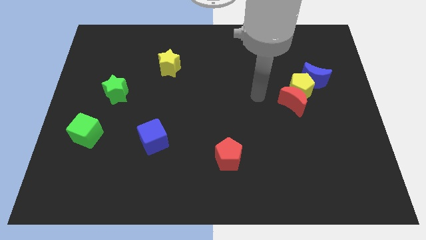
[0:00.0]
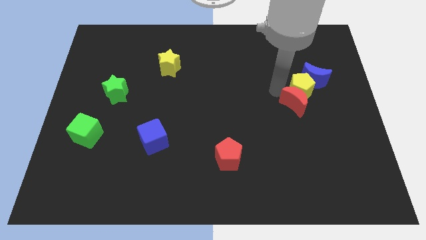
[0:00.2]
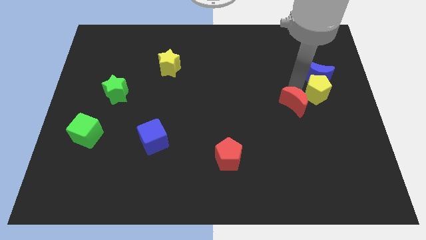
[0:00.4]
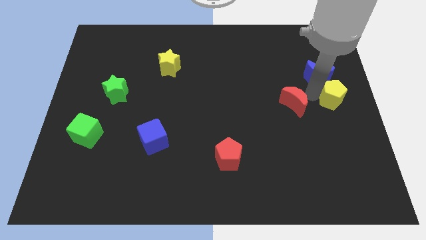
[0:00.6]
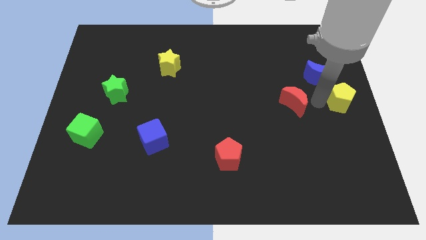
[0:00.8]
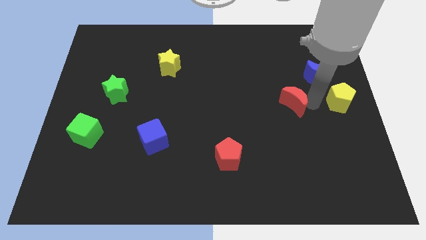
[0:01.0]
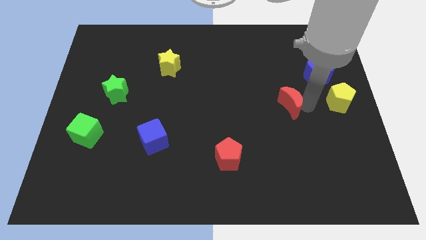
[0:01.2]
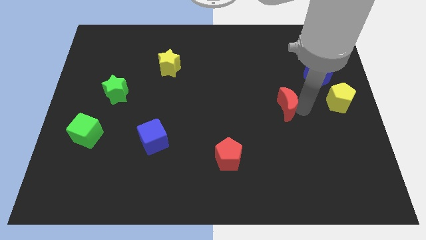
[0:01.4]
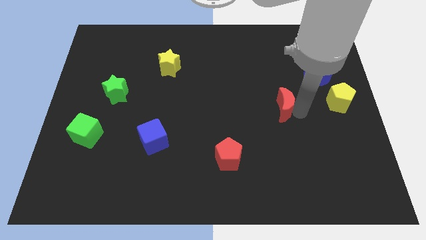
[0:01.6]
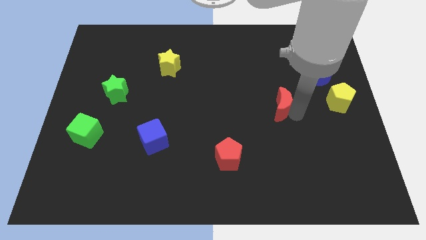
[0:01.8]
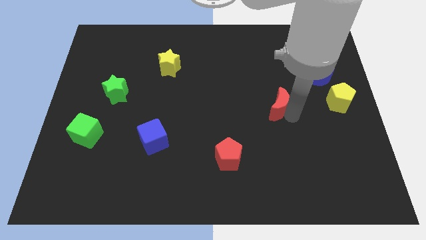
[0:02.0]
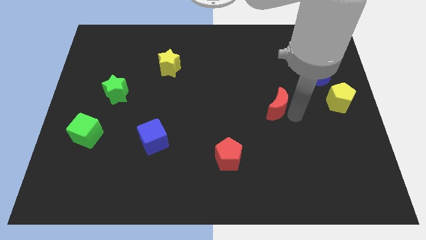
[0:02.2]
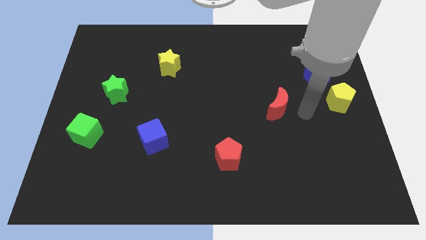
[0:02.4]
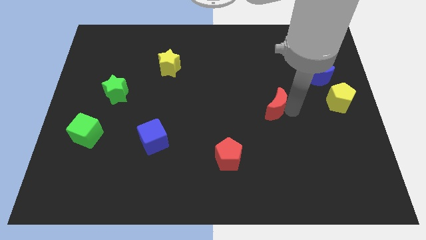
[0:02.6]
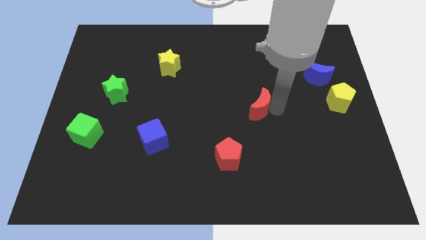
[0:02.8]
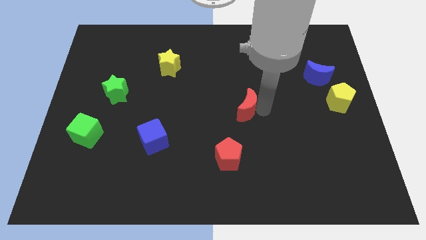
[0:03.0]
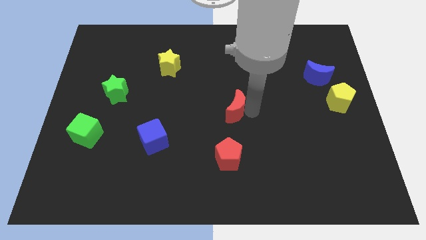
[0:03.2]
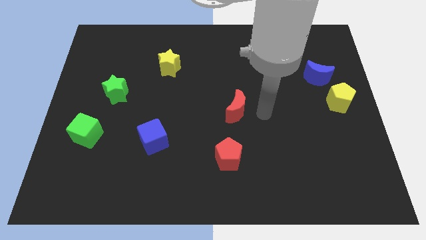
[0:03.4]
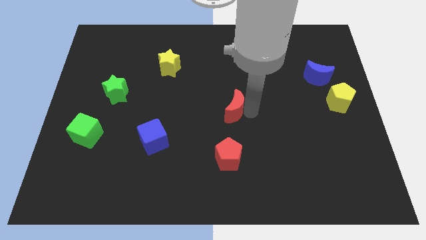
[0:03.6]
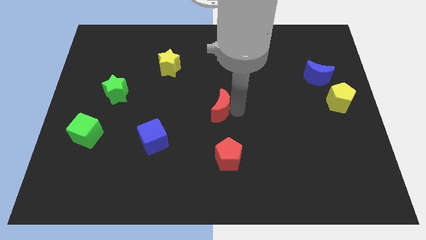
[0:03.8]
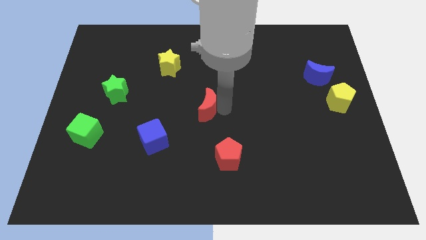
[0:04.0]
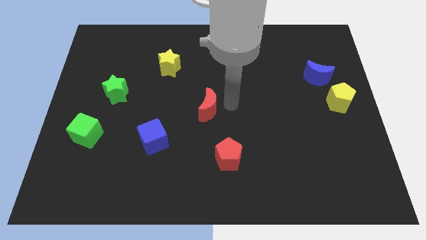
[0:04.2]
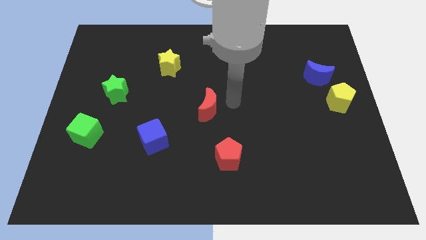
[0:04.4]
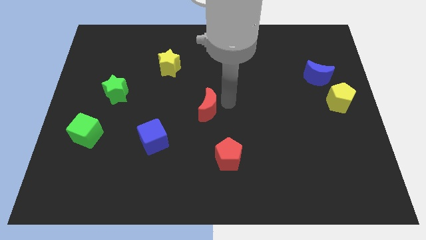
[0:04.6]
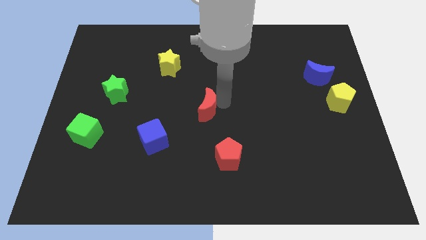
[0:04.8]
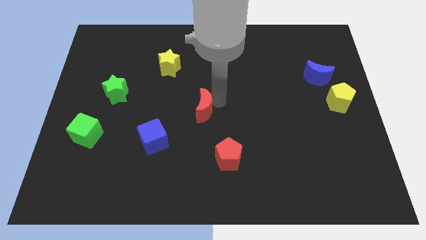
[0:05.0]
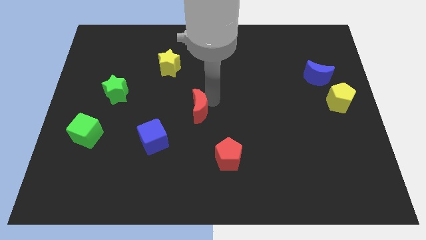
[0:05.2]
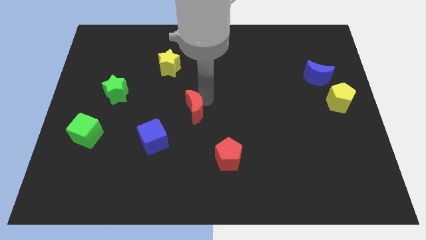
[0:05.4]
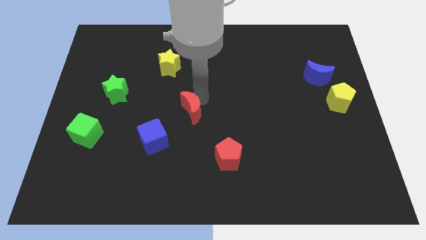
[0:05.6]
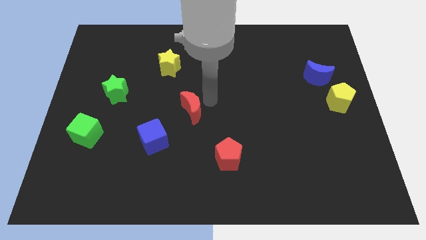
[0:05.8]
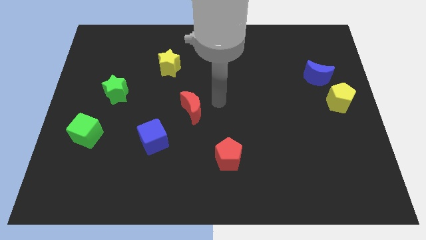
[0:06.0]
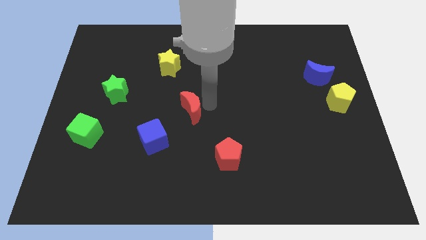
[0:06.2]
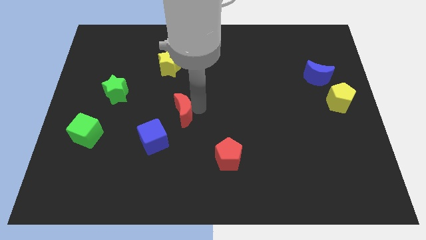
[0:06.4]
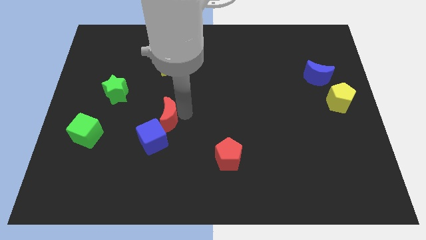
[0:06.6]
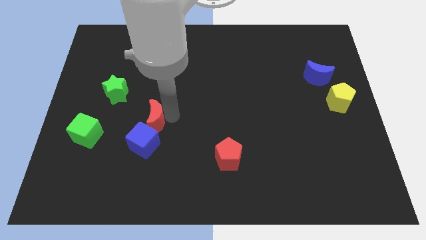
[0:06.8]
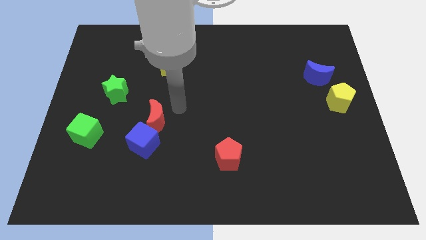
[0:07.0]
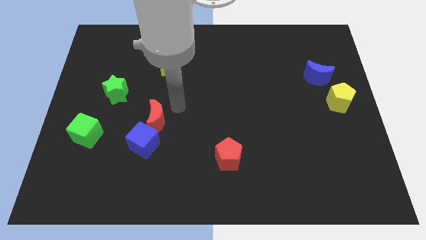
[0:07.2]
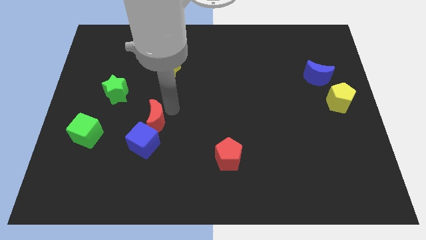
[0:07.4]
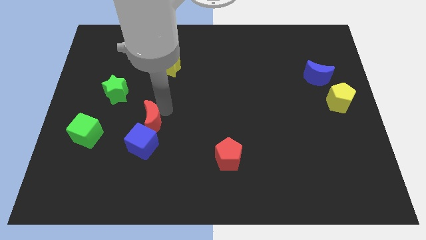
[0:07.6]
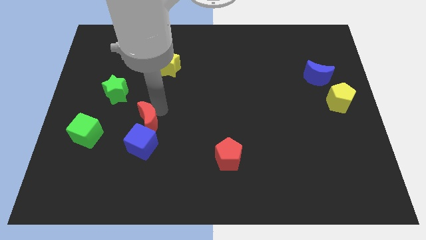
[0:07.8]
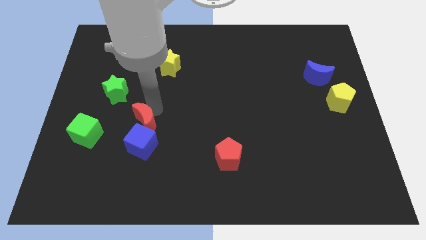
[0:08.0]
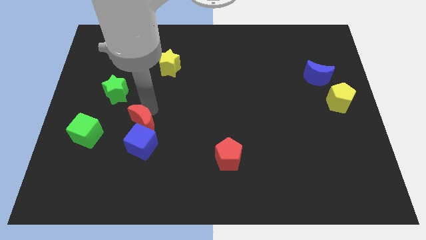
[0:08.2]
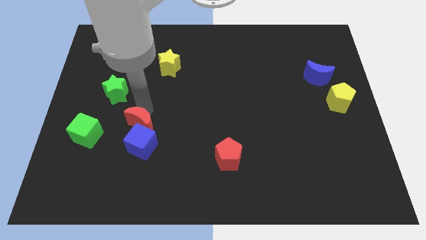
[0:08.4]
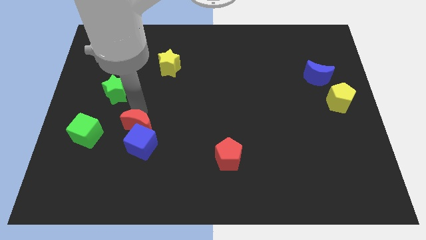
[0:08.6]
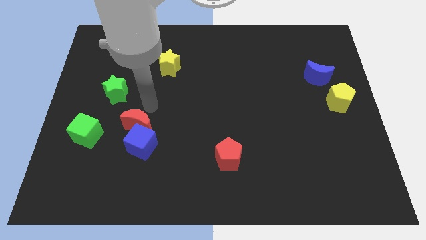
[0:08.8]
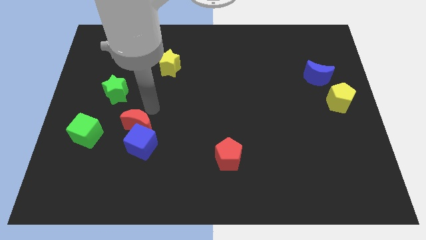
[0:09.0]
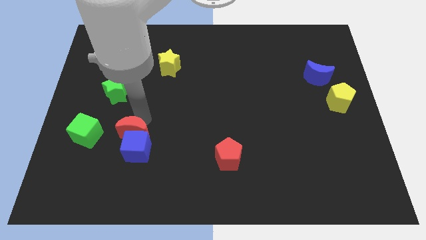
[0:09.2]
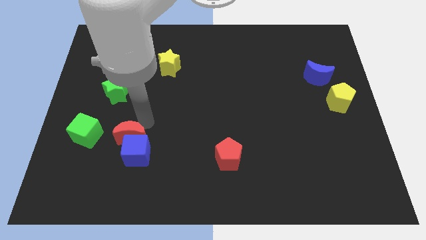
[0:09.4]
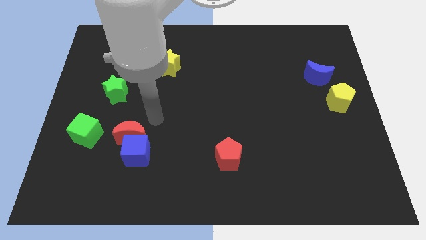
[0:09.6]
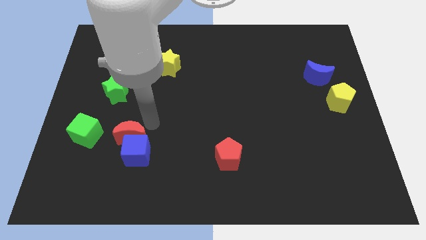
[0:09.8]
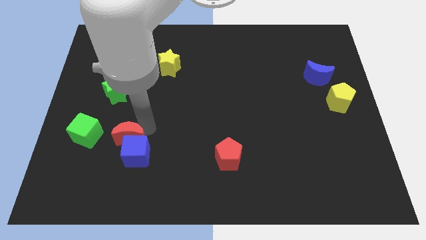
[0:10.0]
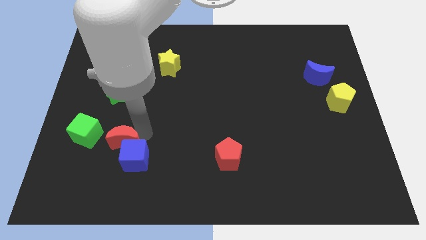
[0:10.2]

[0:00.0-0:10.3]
push the red moon to the bottom right of the green cube

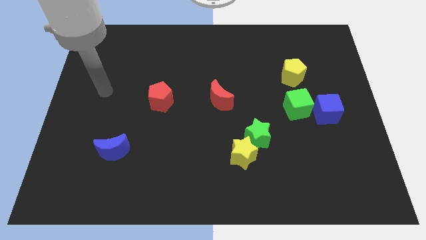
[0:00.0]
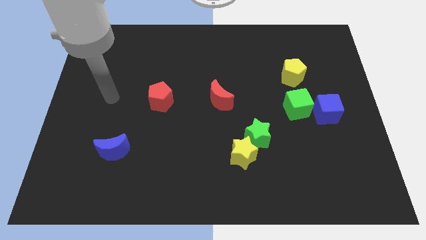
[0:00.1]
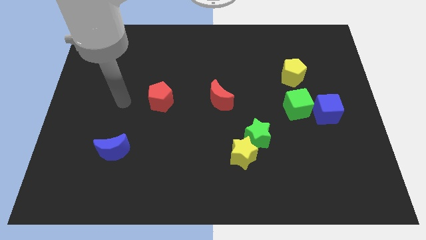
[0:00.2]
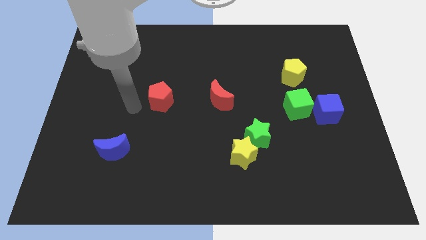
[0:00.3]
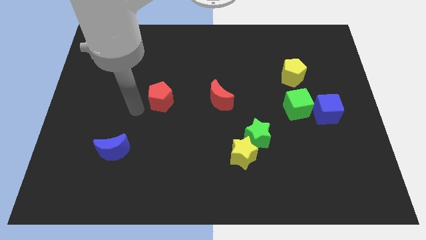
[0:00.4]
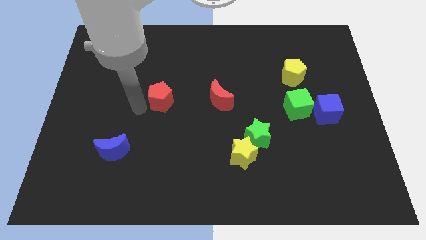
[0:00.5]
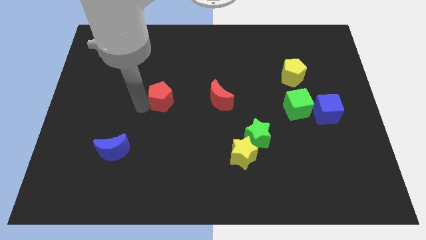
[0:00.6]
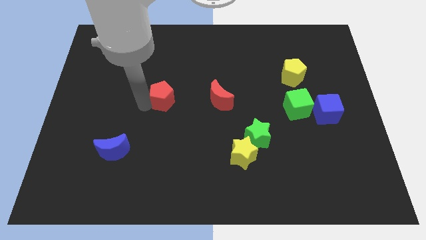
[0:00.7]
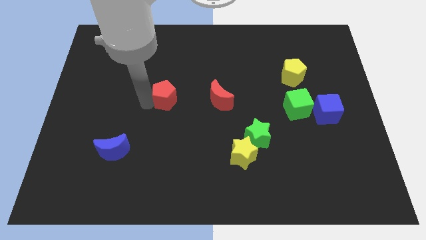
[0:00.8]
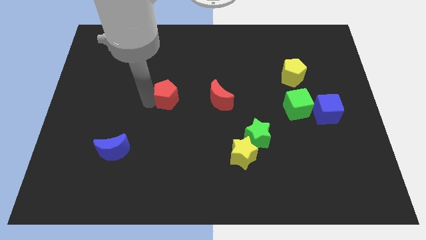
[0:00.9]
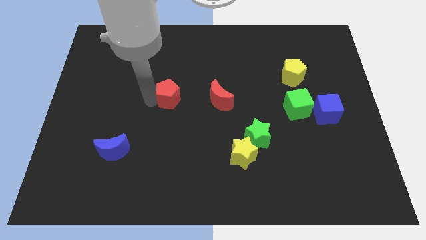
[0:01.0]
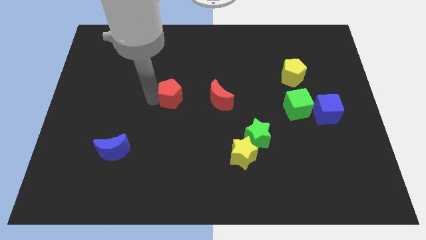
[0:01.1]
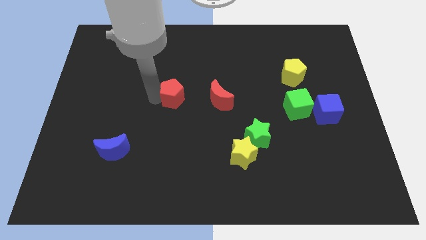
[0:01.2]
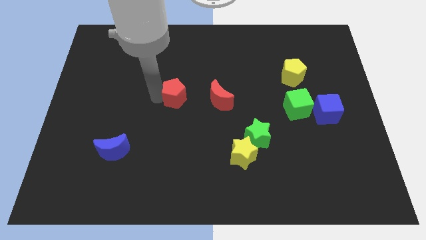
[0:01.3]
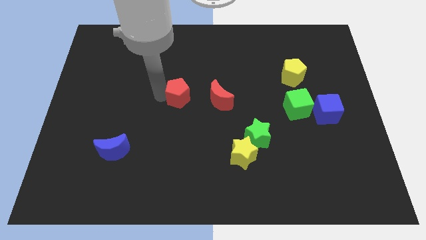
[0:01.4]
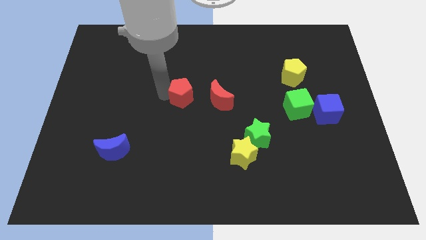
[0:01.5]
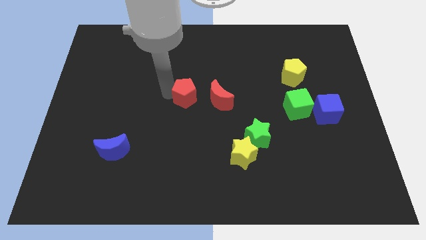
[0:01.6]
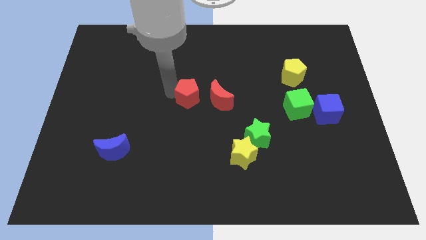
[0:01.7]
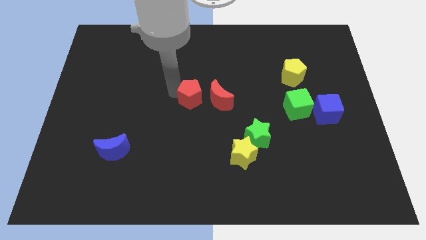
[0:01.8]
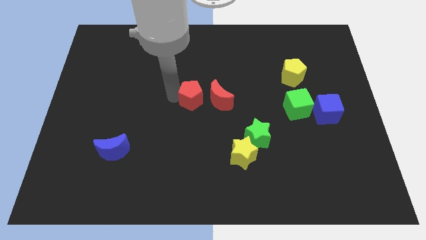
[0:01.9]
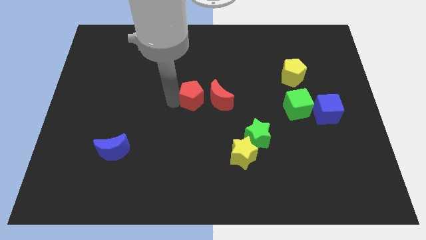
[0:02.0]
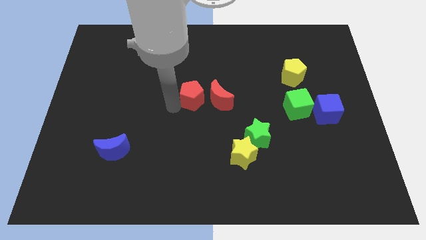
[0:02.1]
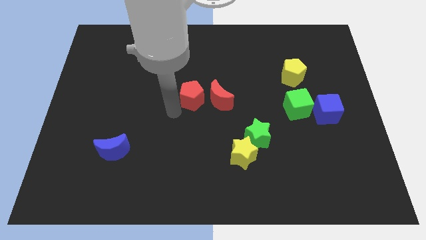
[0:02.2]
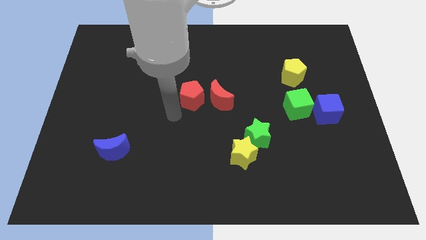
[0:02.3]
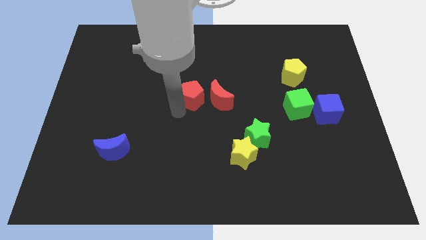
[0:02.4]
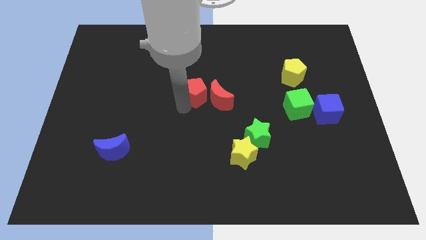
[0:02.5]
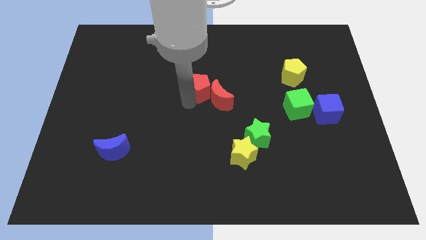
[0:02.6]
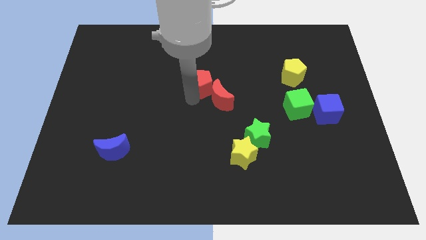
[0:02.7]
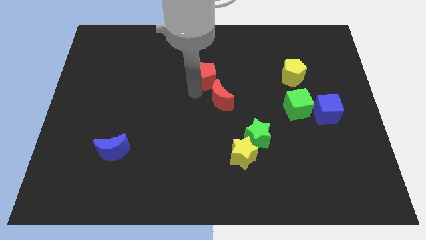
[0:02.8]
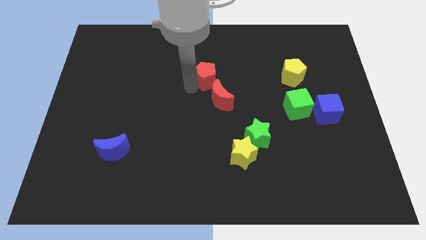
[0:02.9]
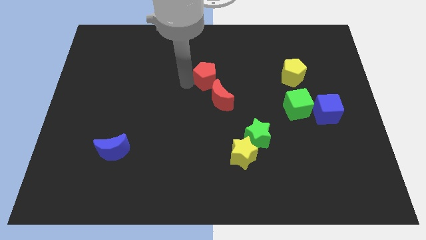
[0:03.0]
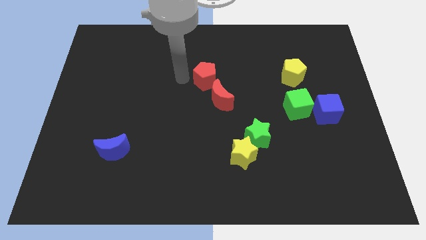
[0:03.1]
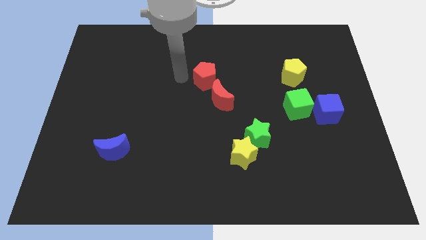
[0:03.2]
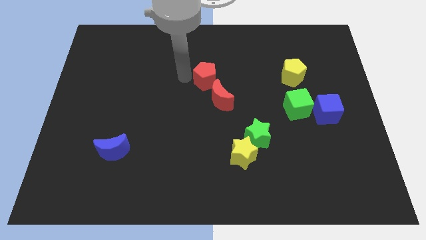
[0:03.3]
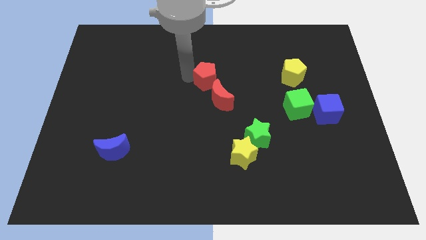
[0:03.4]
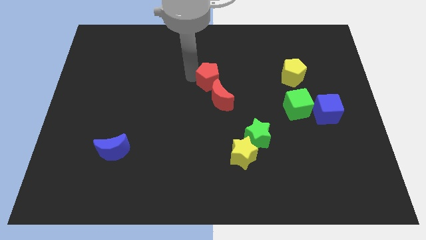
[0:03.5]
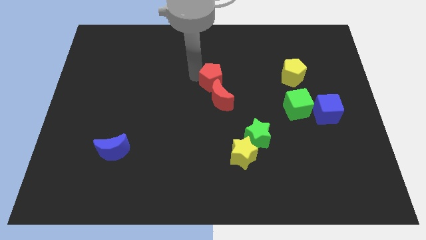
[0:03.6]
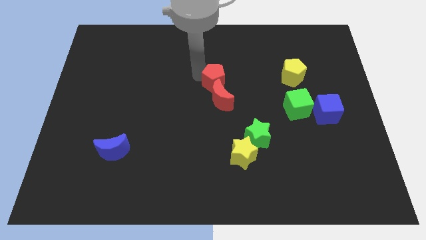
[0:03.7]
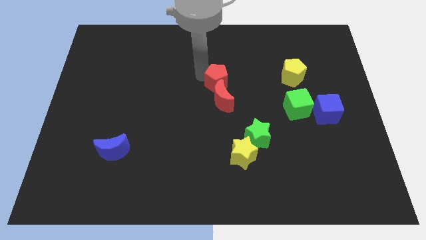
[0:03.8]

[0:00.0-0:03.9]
move the red pentagon to the top right side of the red moon
